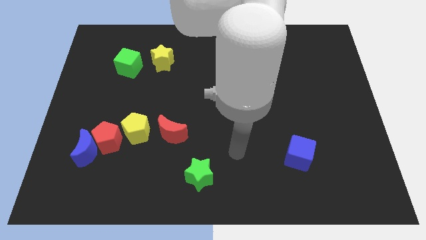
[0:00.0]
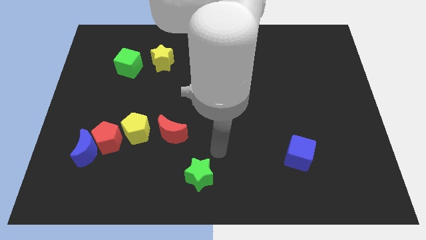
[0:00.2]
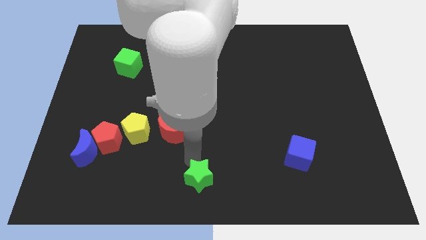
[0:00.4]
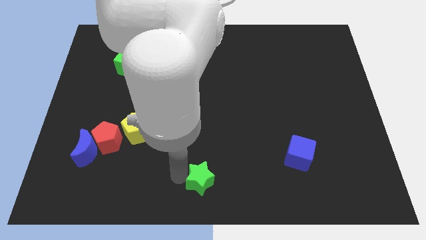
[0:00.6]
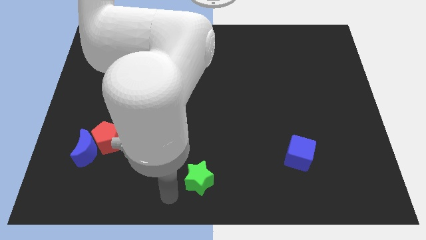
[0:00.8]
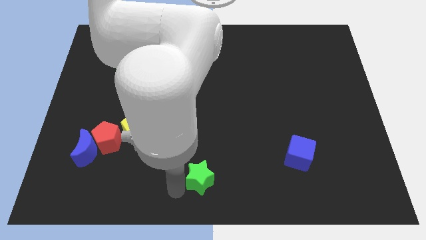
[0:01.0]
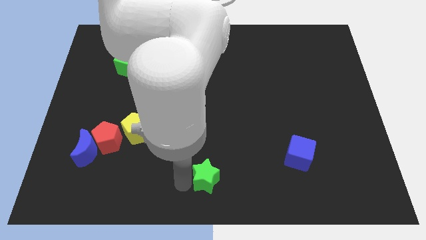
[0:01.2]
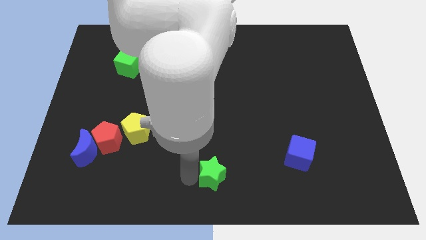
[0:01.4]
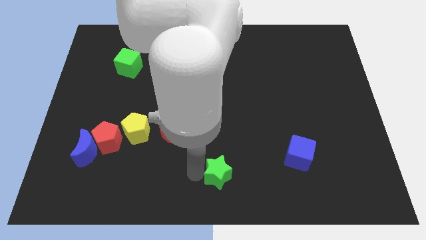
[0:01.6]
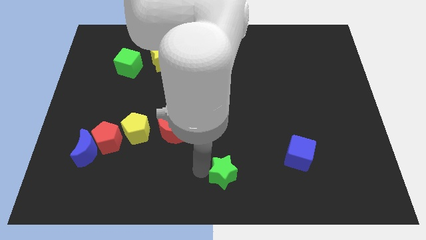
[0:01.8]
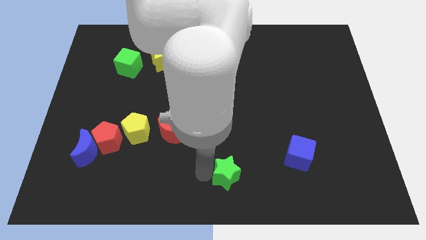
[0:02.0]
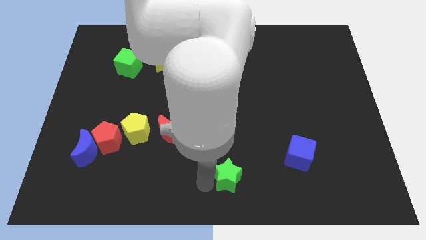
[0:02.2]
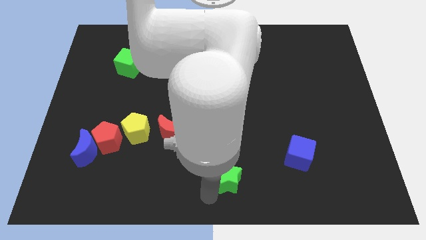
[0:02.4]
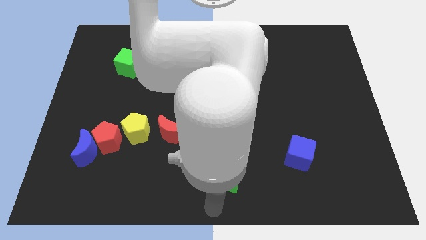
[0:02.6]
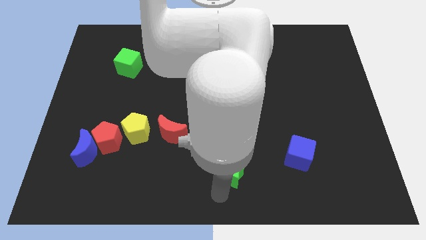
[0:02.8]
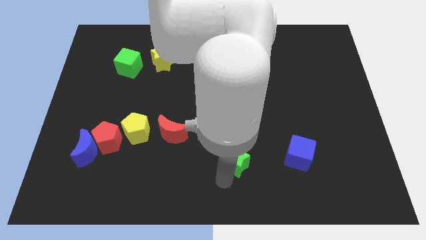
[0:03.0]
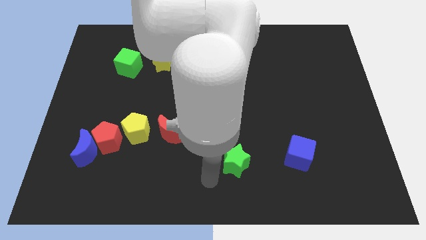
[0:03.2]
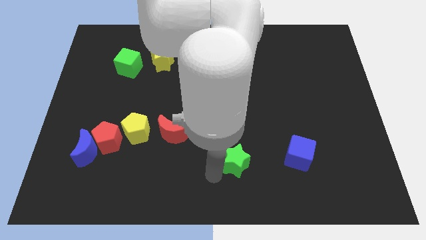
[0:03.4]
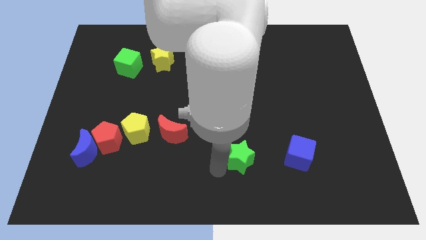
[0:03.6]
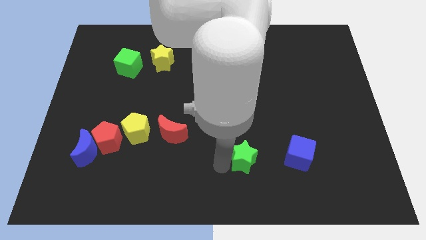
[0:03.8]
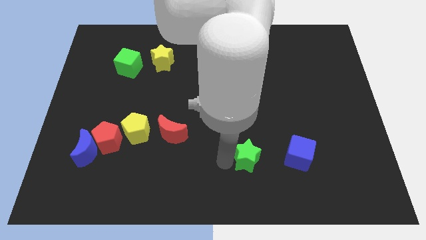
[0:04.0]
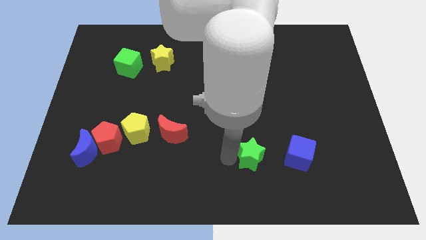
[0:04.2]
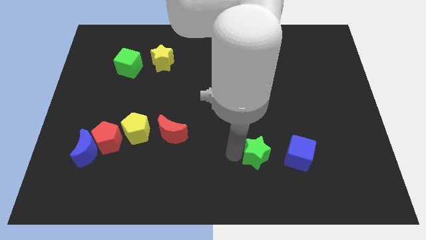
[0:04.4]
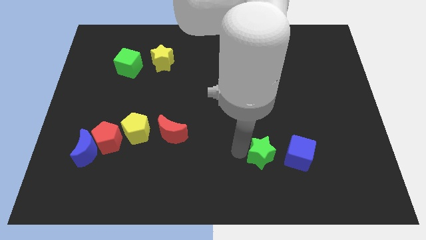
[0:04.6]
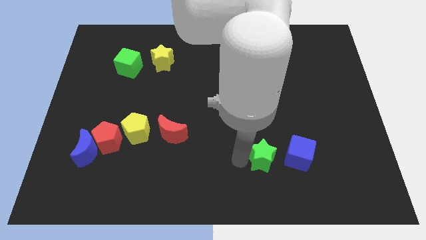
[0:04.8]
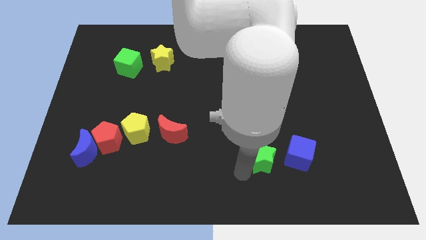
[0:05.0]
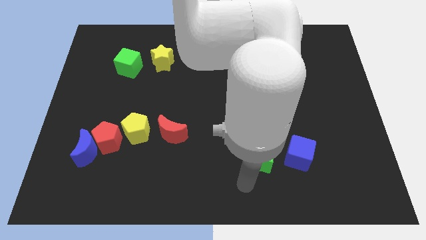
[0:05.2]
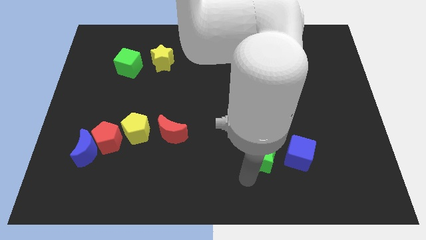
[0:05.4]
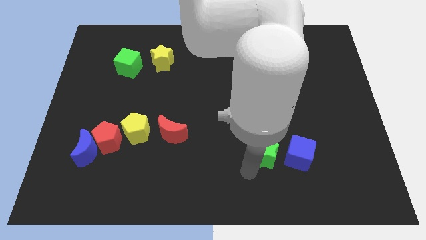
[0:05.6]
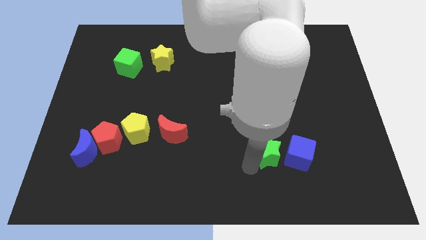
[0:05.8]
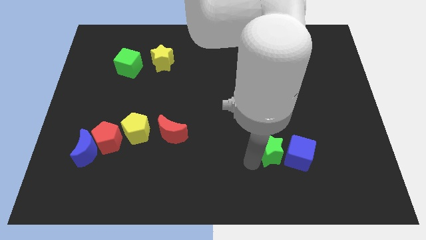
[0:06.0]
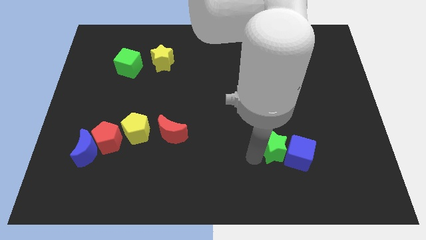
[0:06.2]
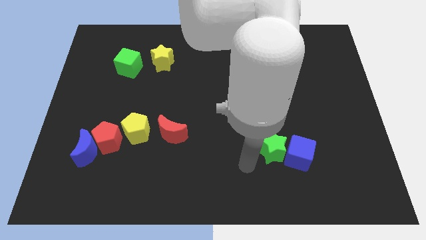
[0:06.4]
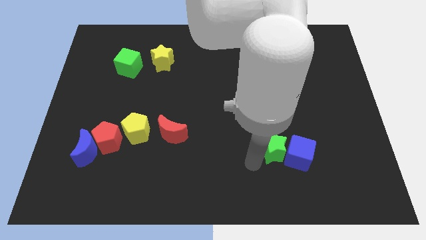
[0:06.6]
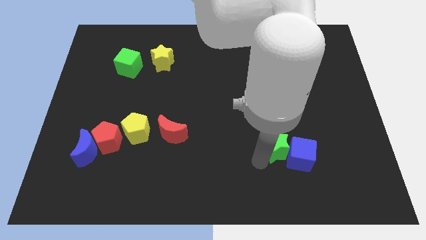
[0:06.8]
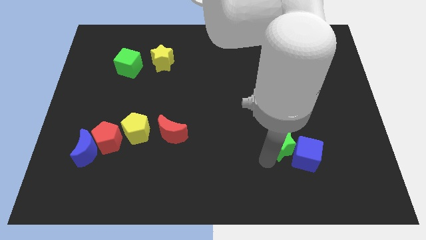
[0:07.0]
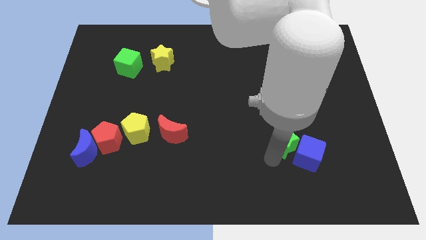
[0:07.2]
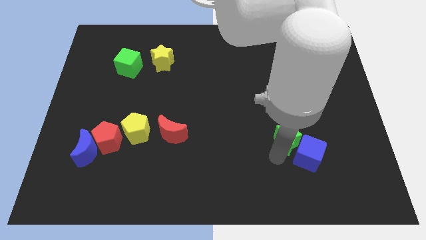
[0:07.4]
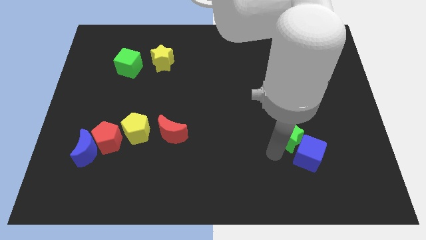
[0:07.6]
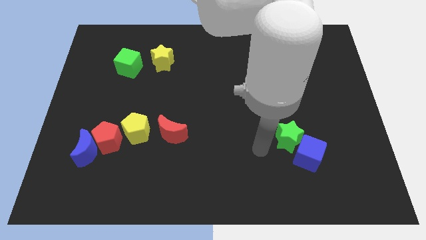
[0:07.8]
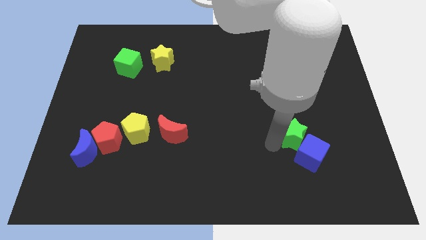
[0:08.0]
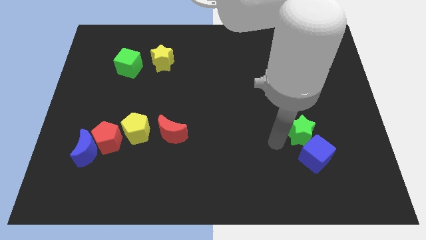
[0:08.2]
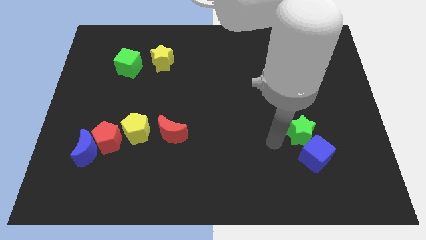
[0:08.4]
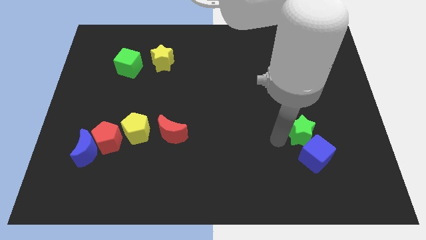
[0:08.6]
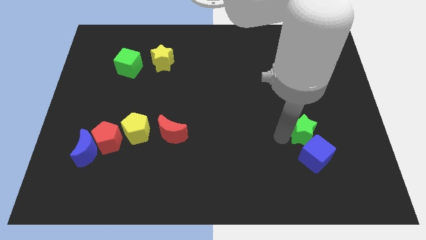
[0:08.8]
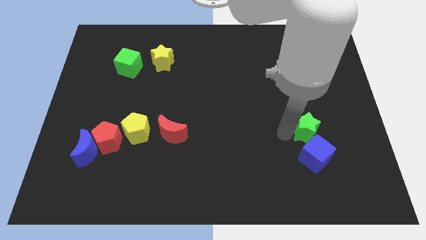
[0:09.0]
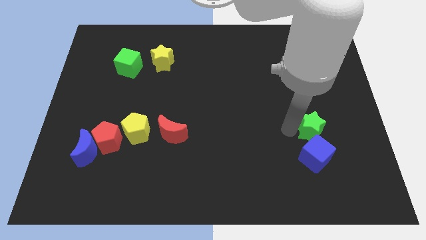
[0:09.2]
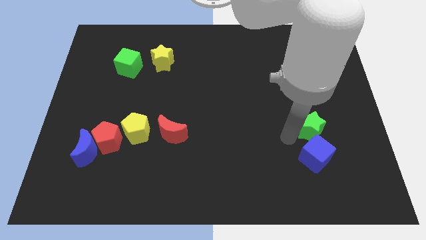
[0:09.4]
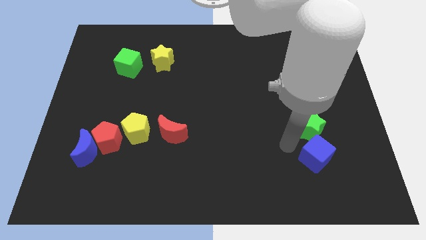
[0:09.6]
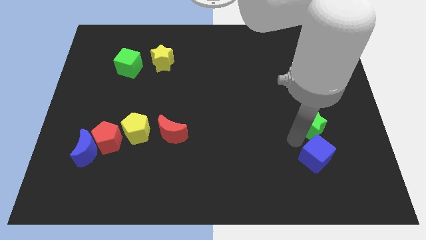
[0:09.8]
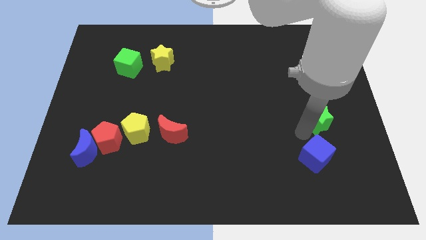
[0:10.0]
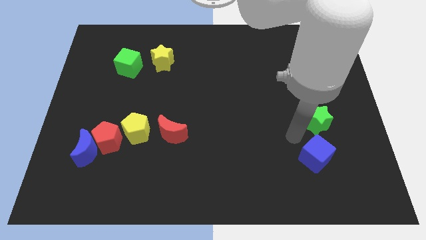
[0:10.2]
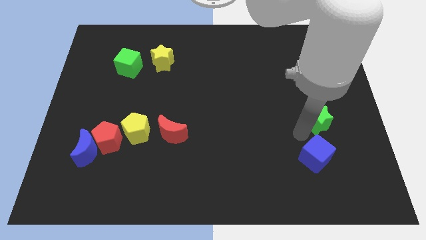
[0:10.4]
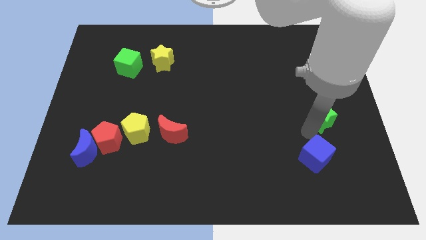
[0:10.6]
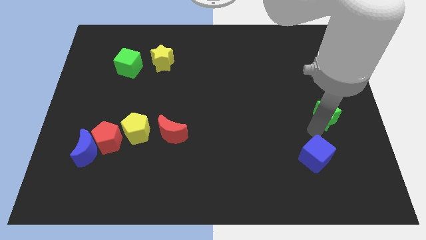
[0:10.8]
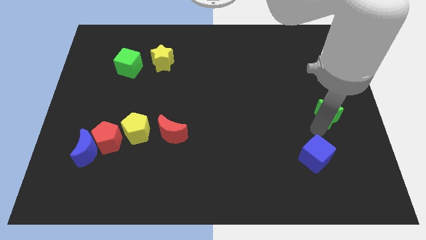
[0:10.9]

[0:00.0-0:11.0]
push the green star to the center right
